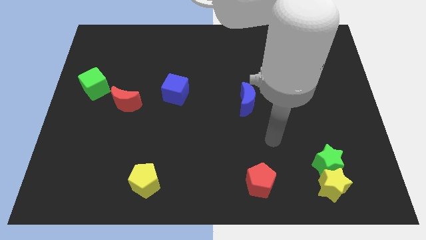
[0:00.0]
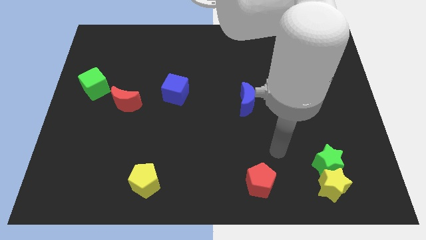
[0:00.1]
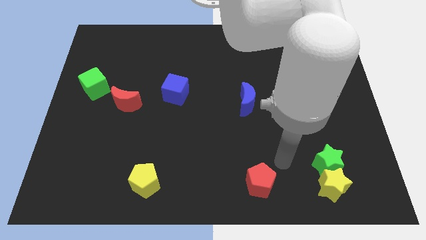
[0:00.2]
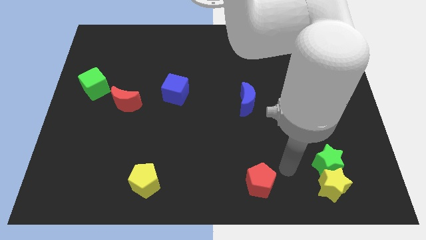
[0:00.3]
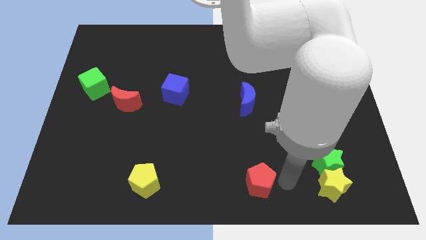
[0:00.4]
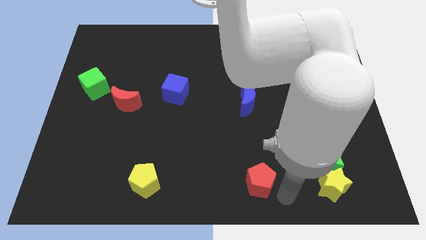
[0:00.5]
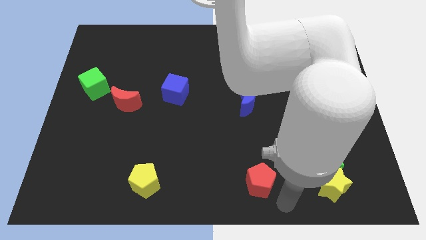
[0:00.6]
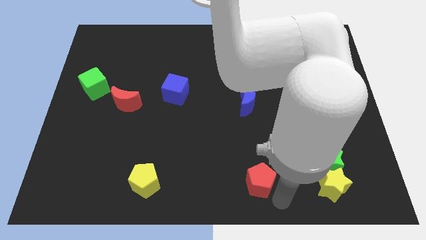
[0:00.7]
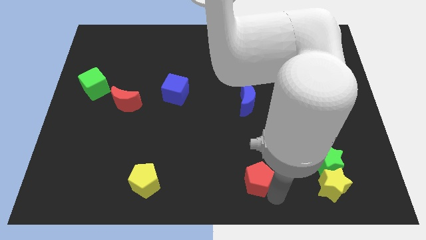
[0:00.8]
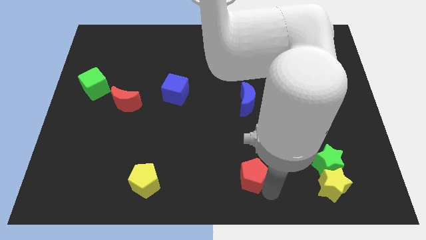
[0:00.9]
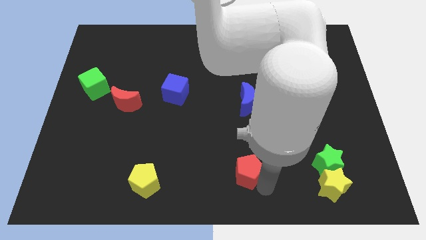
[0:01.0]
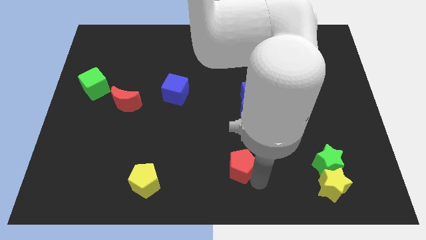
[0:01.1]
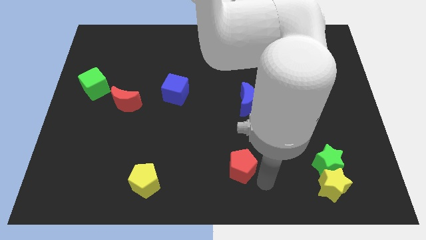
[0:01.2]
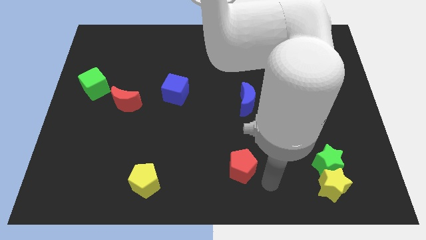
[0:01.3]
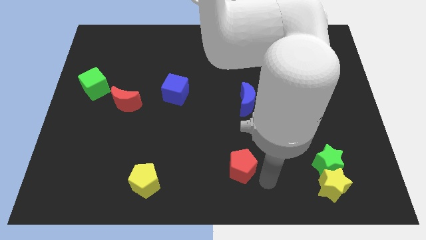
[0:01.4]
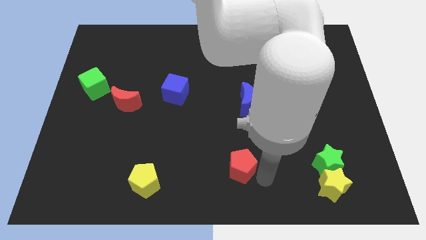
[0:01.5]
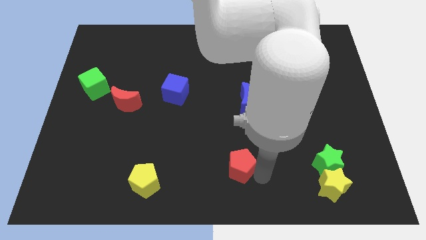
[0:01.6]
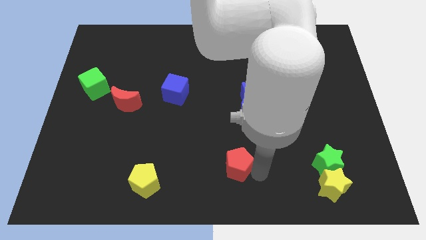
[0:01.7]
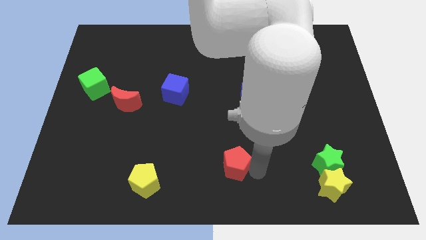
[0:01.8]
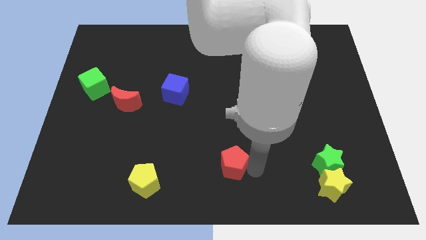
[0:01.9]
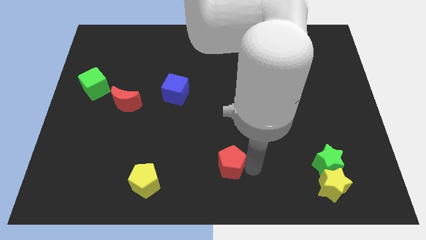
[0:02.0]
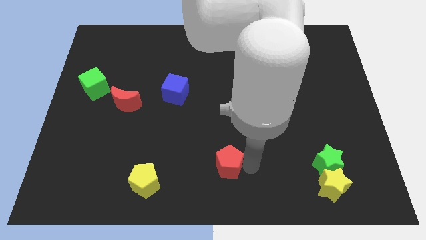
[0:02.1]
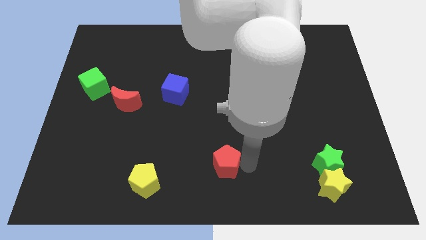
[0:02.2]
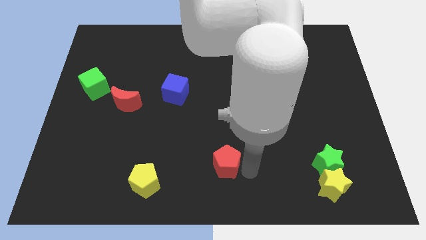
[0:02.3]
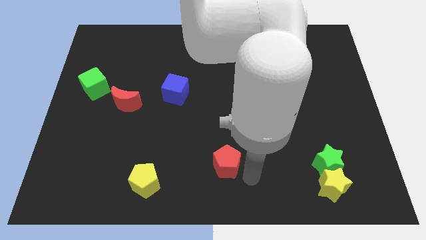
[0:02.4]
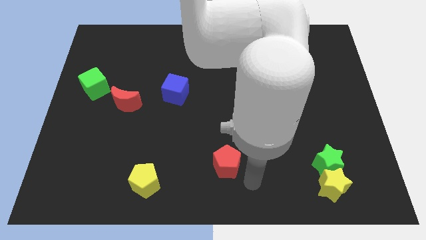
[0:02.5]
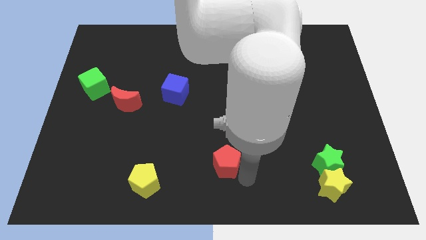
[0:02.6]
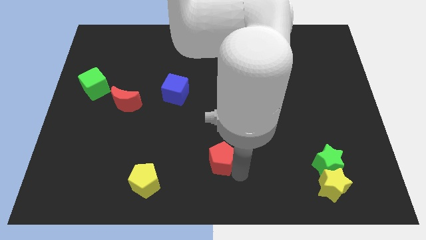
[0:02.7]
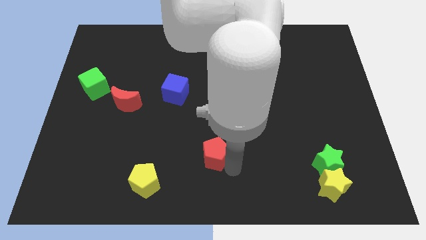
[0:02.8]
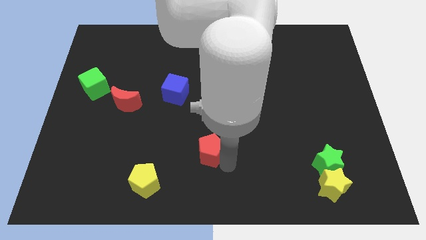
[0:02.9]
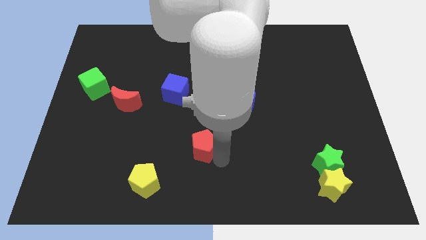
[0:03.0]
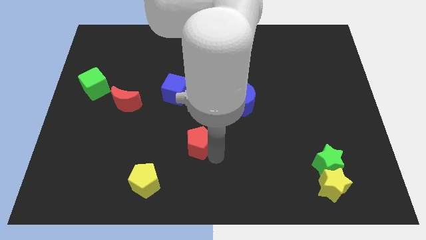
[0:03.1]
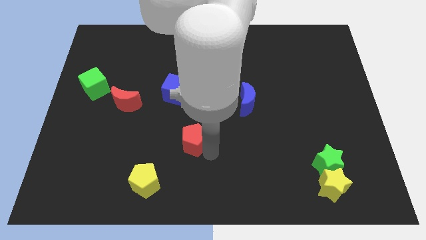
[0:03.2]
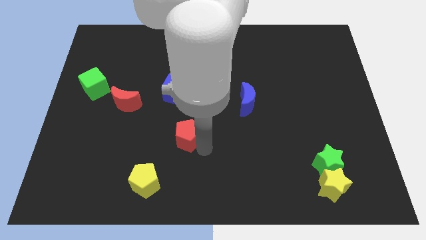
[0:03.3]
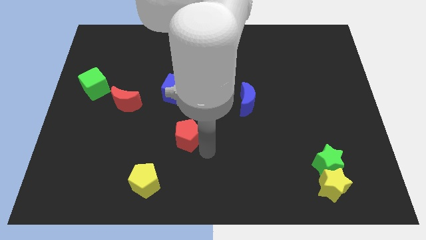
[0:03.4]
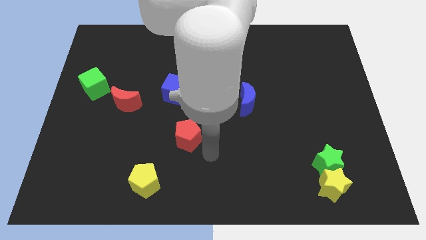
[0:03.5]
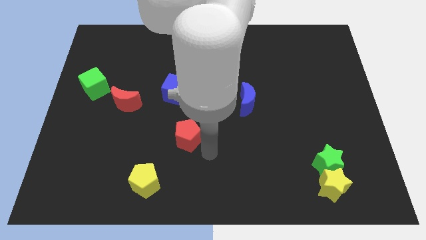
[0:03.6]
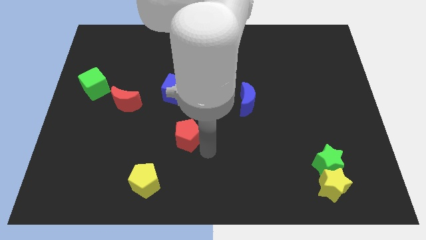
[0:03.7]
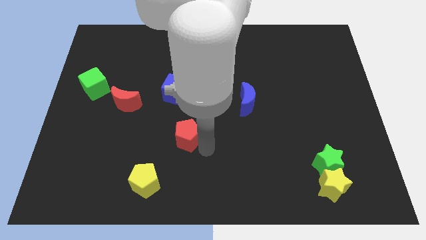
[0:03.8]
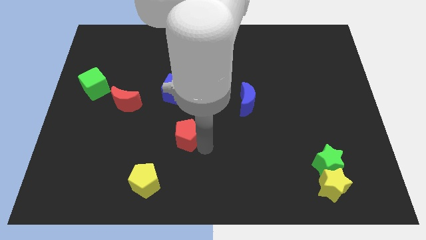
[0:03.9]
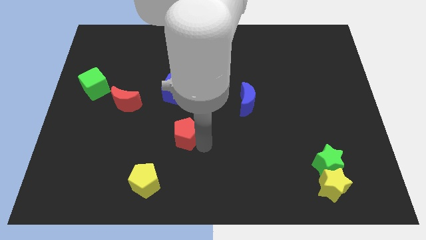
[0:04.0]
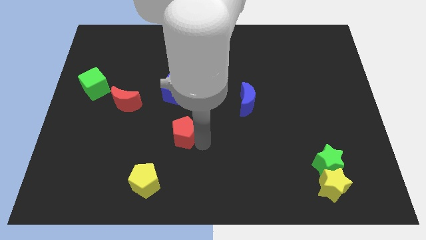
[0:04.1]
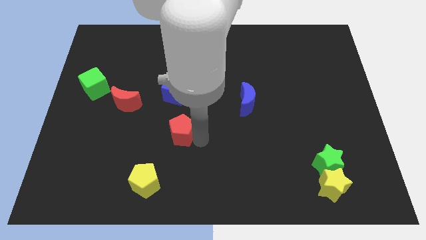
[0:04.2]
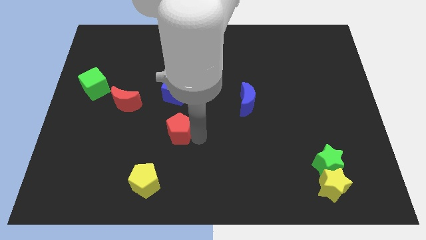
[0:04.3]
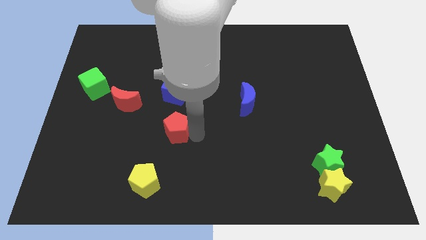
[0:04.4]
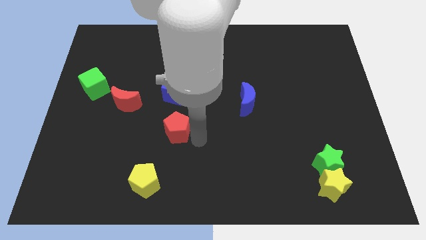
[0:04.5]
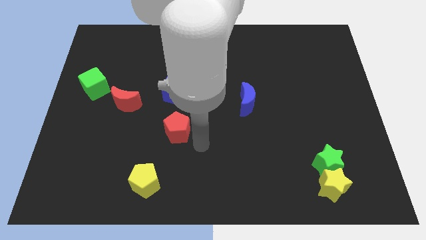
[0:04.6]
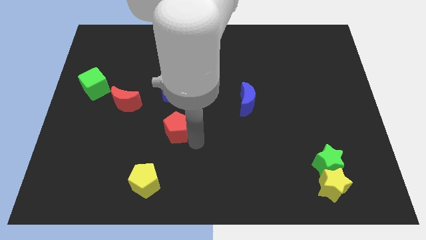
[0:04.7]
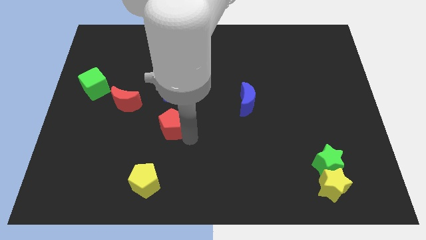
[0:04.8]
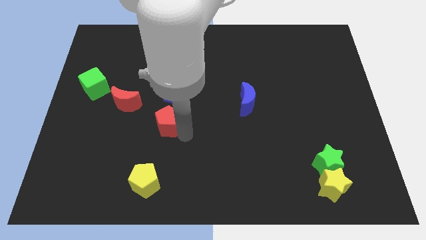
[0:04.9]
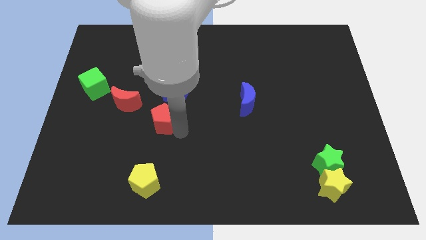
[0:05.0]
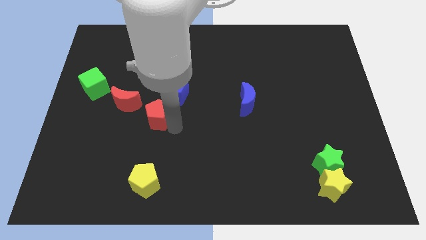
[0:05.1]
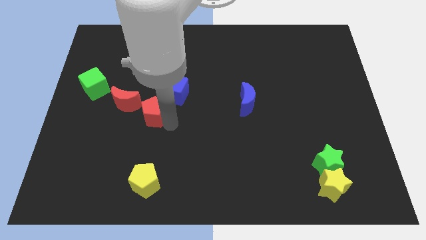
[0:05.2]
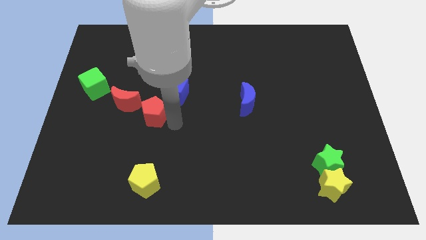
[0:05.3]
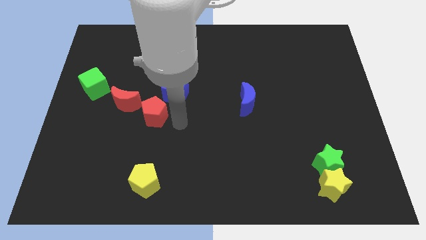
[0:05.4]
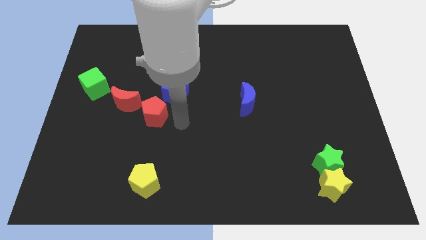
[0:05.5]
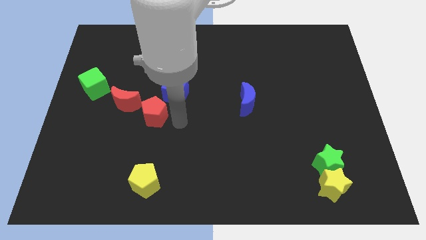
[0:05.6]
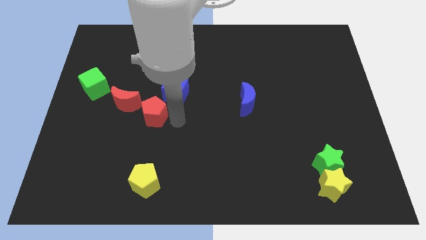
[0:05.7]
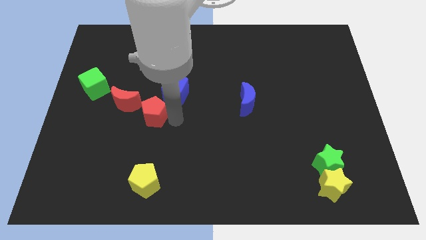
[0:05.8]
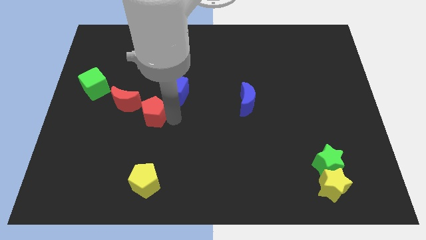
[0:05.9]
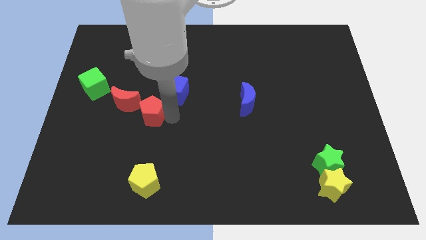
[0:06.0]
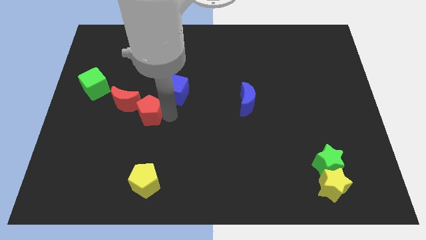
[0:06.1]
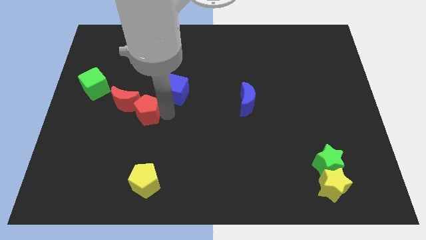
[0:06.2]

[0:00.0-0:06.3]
move the red pentagon towards the red moon

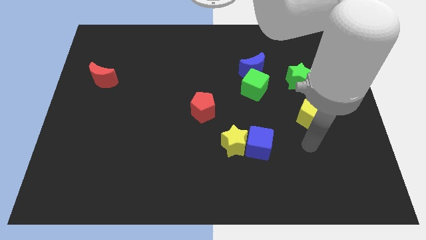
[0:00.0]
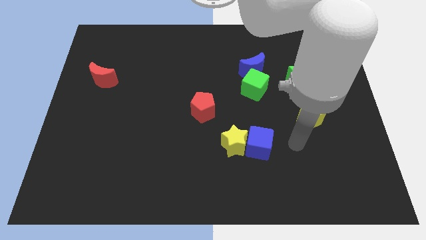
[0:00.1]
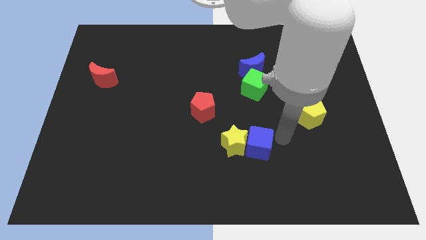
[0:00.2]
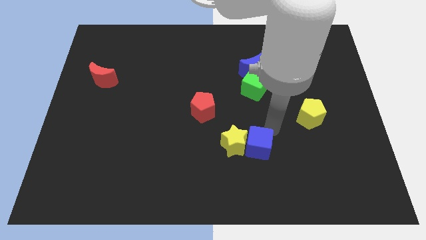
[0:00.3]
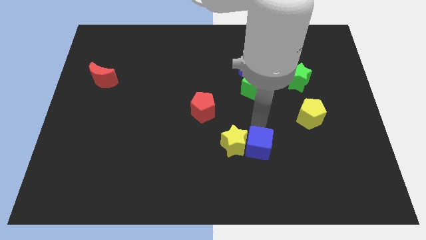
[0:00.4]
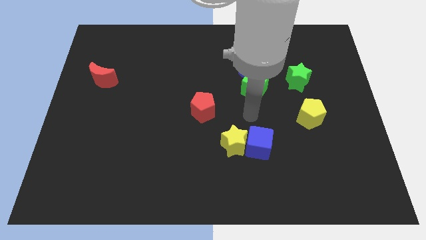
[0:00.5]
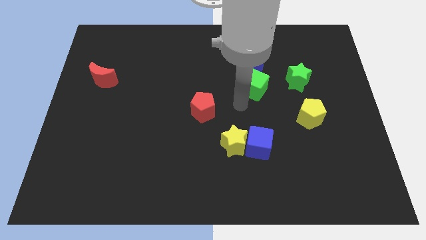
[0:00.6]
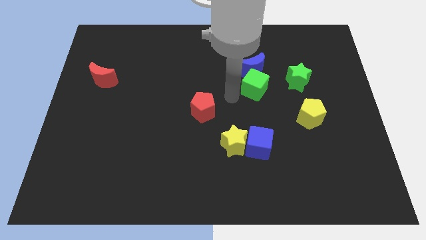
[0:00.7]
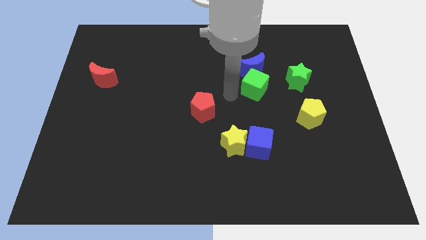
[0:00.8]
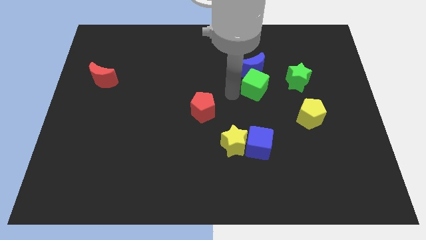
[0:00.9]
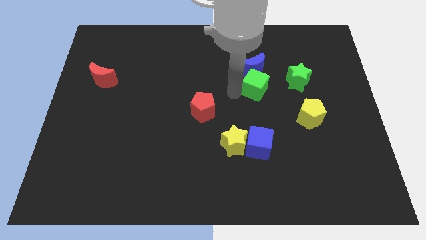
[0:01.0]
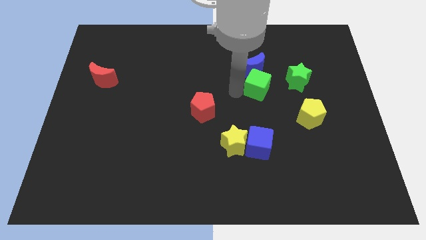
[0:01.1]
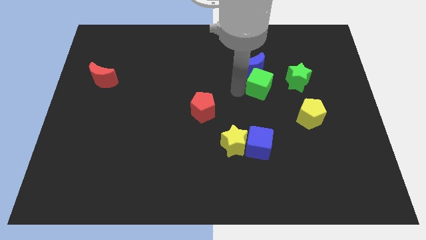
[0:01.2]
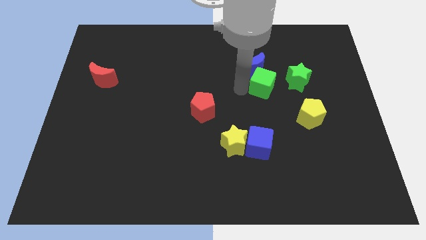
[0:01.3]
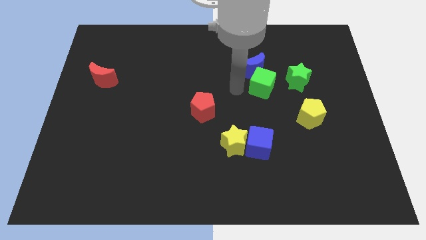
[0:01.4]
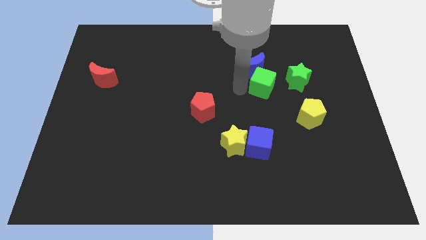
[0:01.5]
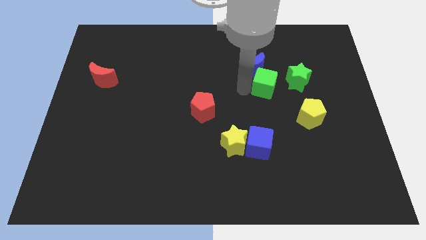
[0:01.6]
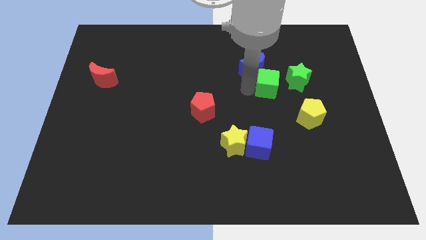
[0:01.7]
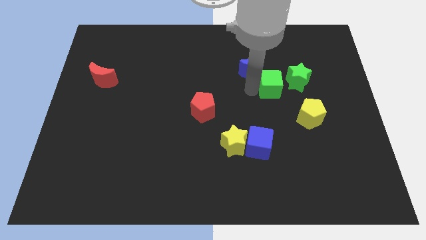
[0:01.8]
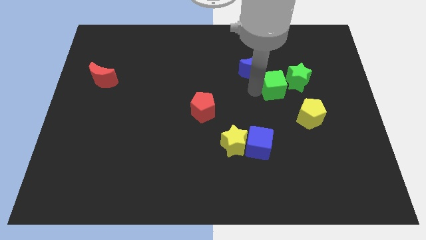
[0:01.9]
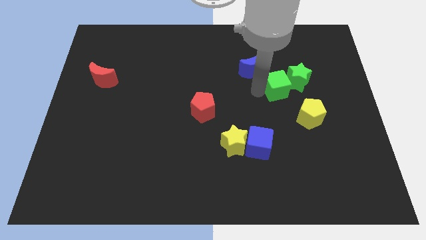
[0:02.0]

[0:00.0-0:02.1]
put the green cube towards the green star
